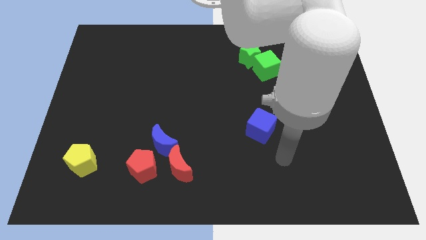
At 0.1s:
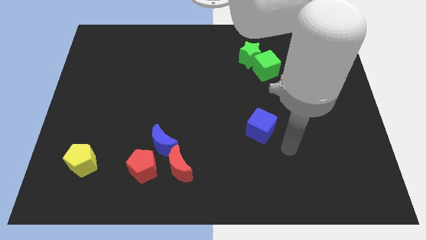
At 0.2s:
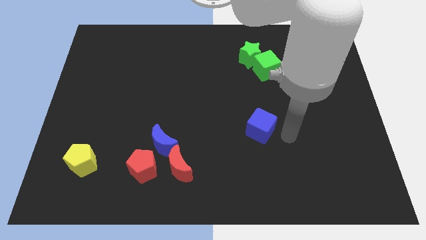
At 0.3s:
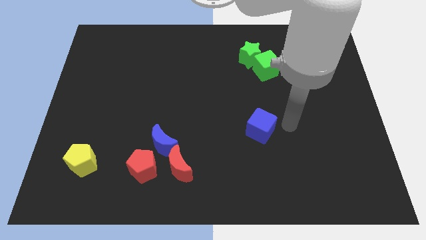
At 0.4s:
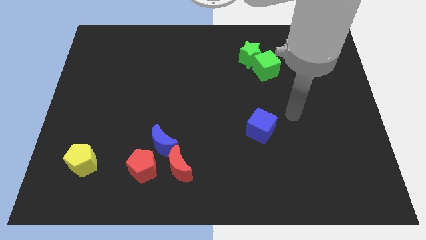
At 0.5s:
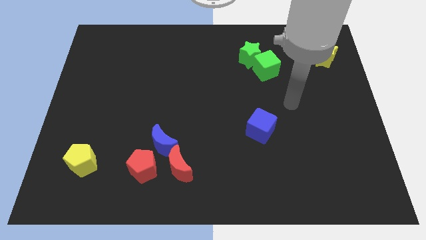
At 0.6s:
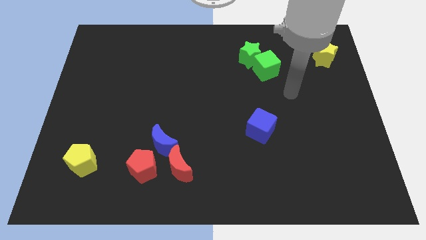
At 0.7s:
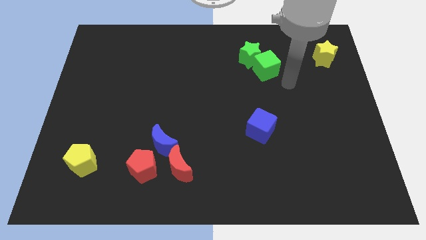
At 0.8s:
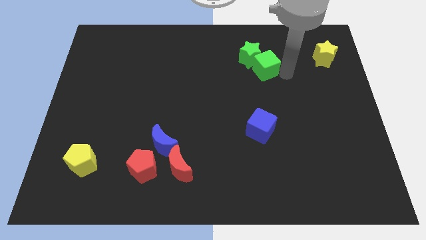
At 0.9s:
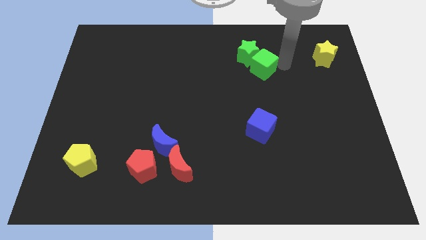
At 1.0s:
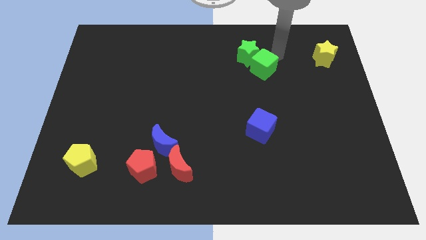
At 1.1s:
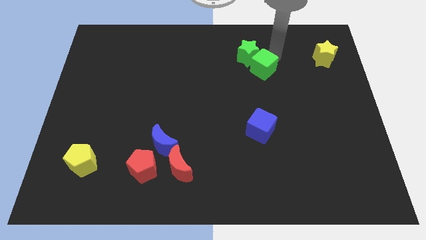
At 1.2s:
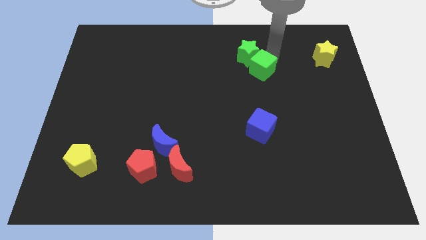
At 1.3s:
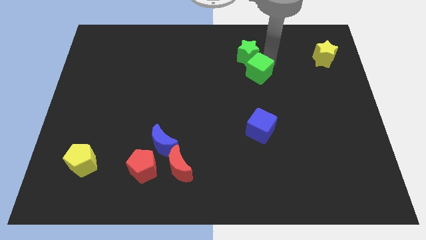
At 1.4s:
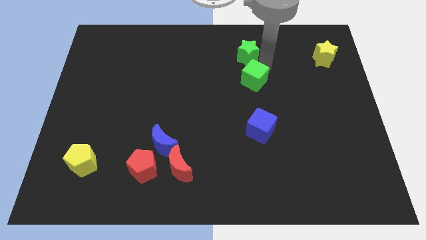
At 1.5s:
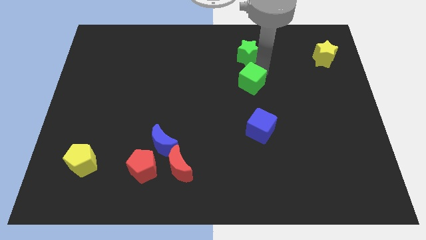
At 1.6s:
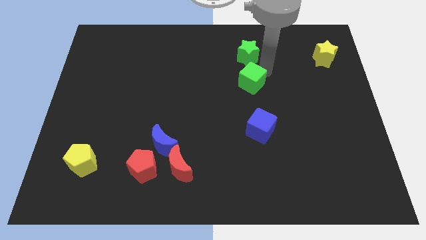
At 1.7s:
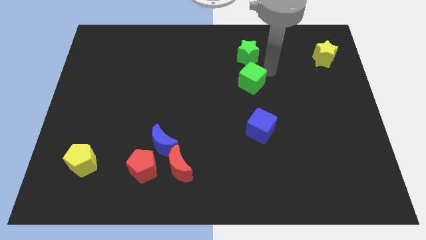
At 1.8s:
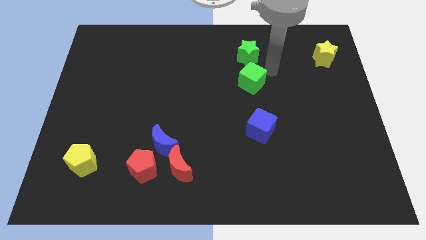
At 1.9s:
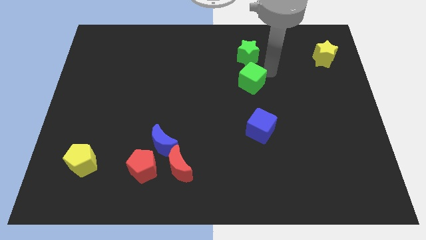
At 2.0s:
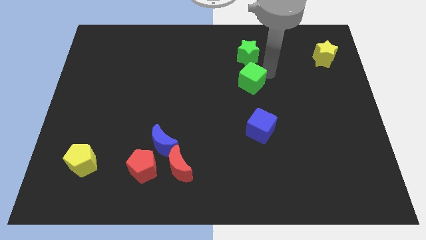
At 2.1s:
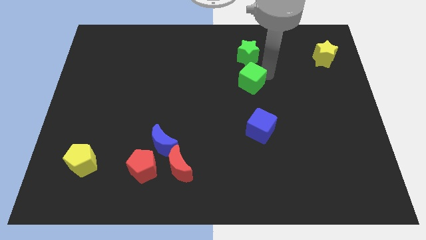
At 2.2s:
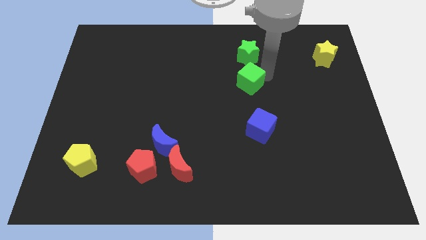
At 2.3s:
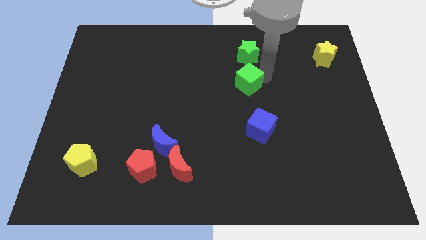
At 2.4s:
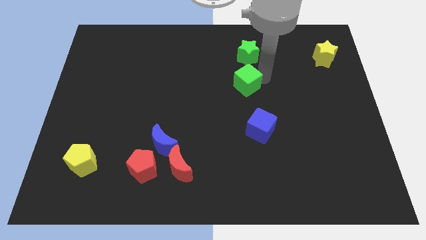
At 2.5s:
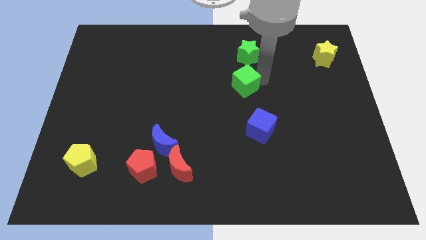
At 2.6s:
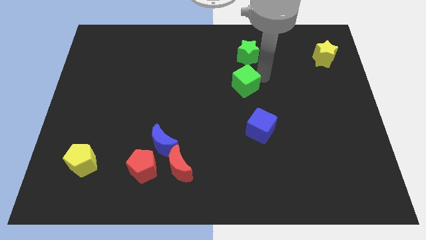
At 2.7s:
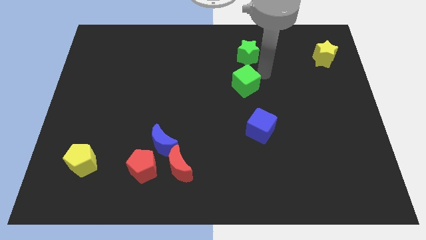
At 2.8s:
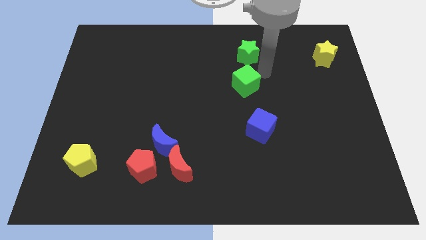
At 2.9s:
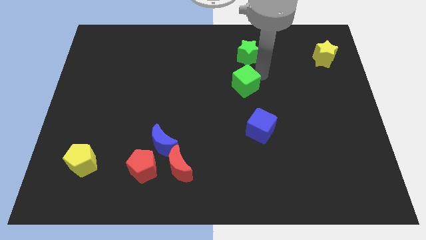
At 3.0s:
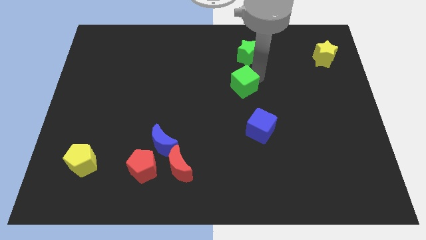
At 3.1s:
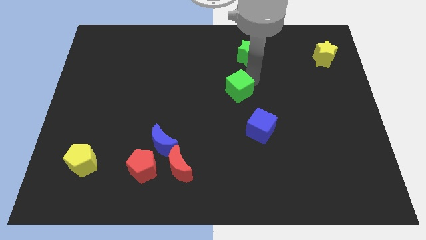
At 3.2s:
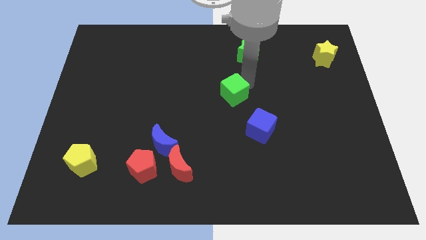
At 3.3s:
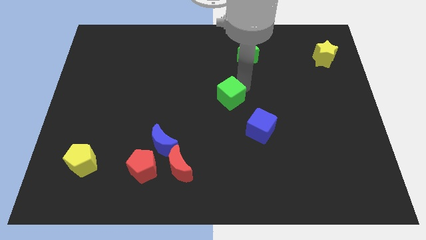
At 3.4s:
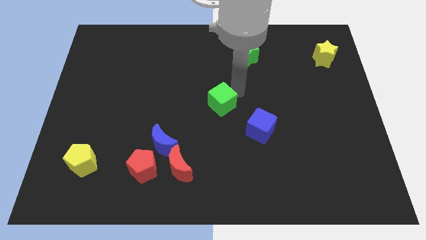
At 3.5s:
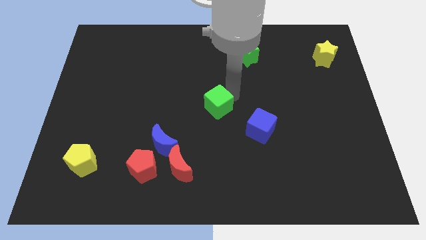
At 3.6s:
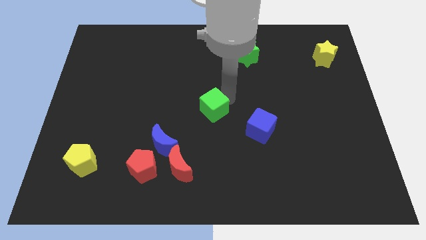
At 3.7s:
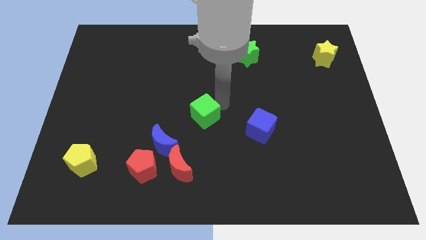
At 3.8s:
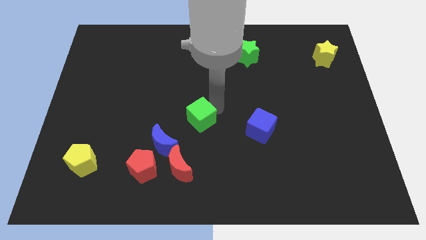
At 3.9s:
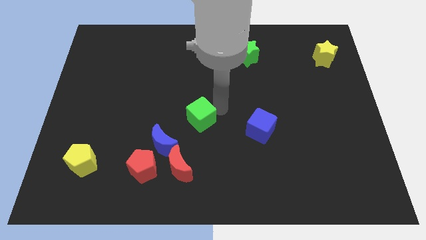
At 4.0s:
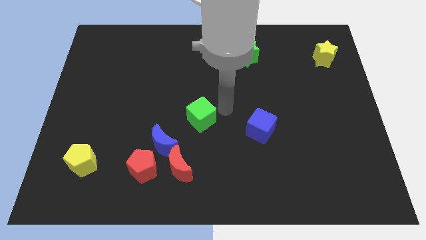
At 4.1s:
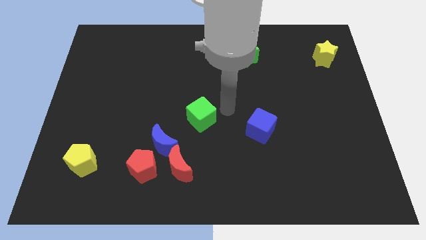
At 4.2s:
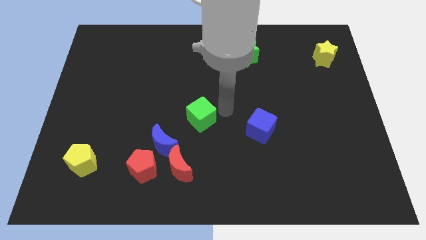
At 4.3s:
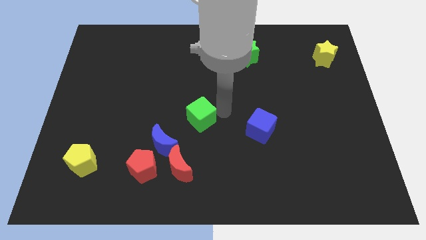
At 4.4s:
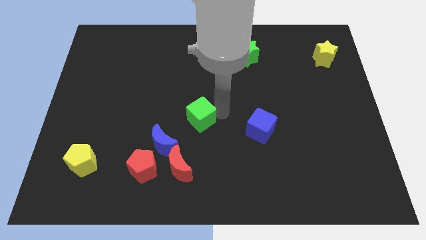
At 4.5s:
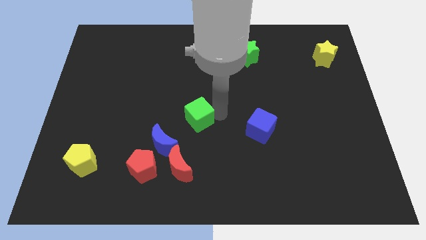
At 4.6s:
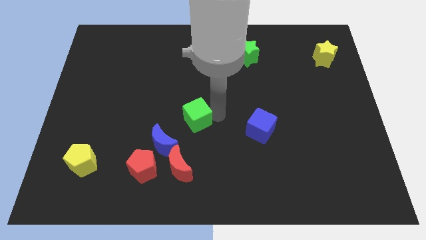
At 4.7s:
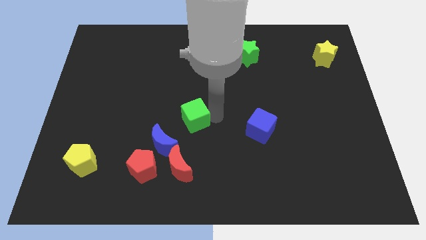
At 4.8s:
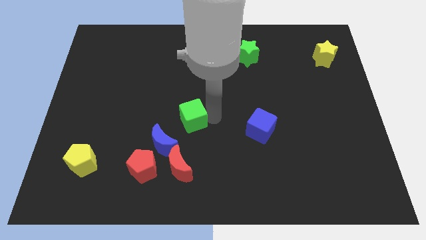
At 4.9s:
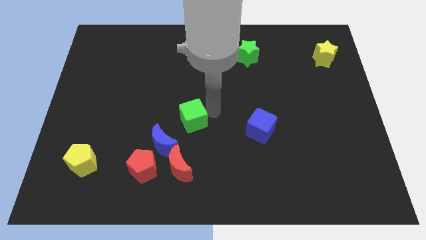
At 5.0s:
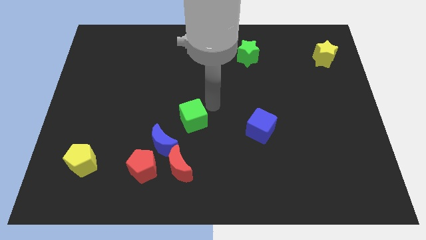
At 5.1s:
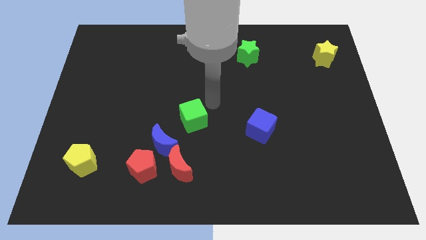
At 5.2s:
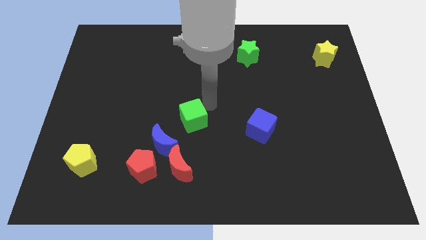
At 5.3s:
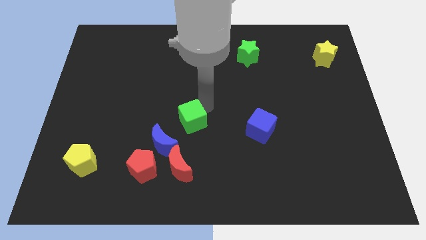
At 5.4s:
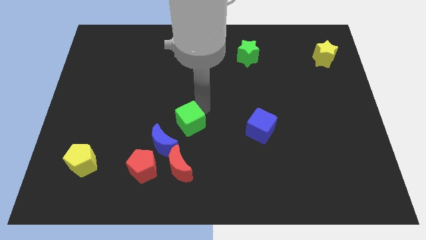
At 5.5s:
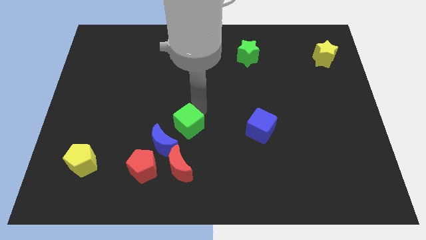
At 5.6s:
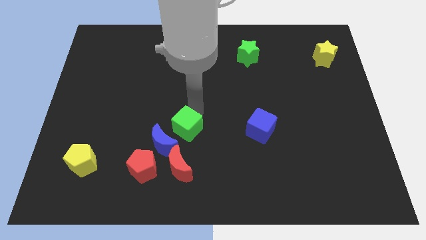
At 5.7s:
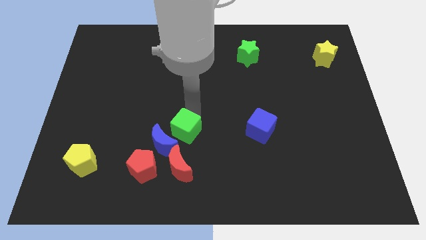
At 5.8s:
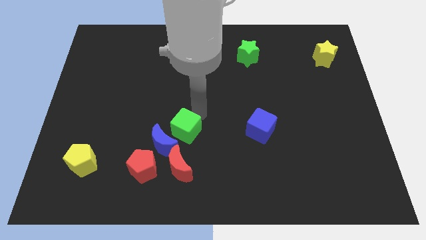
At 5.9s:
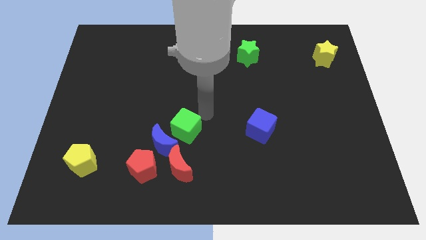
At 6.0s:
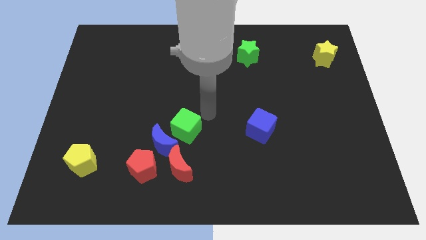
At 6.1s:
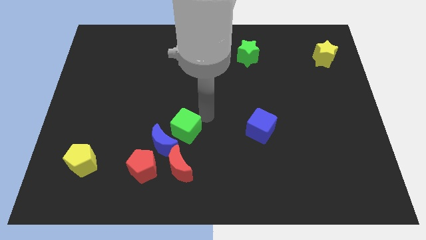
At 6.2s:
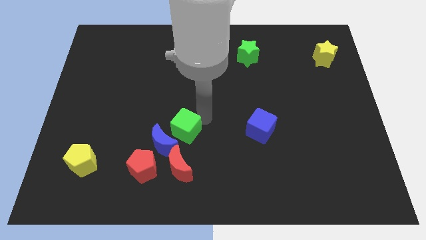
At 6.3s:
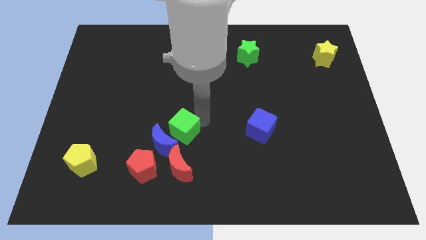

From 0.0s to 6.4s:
move the green cube towards the blue moon
